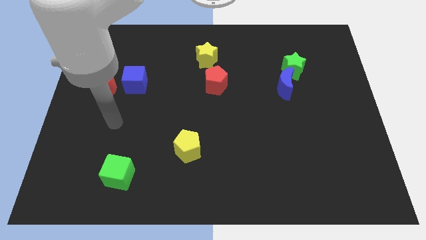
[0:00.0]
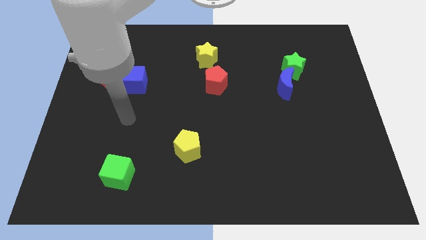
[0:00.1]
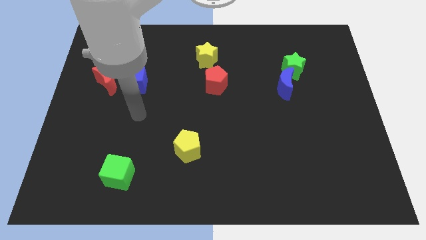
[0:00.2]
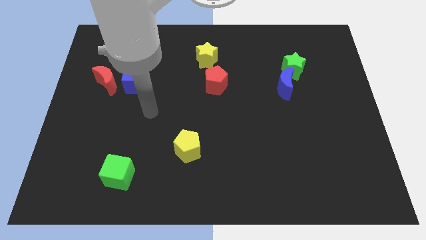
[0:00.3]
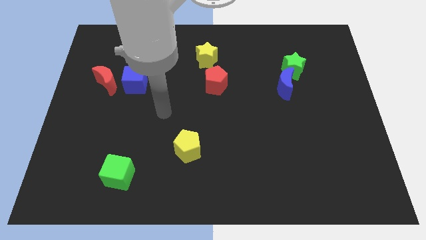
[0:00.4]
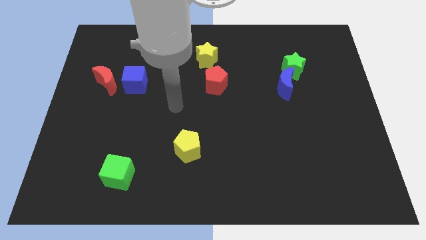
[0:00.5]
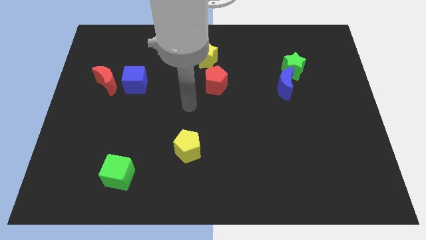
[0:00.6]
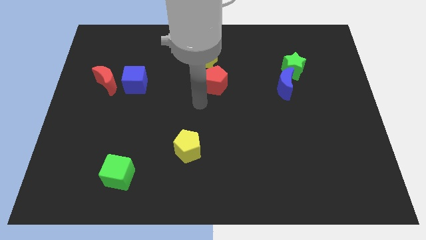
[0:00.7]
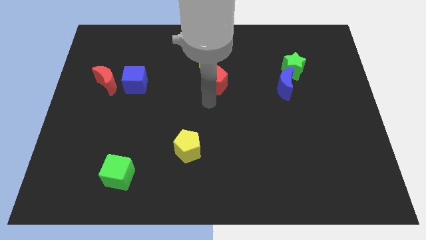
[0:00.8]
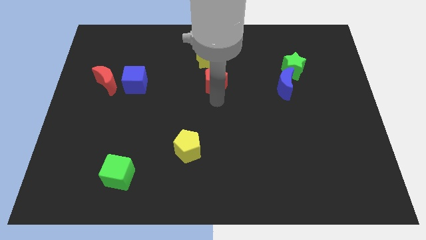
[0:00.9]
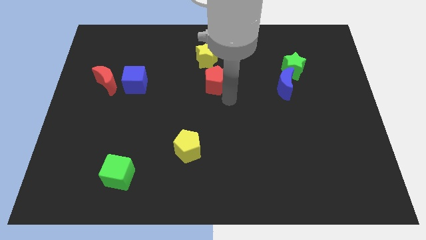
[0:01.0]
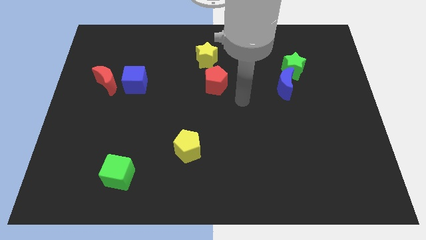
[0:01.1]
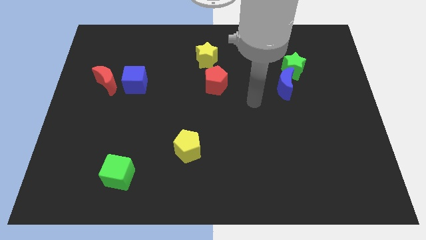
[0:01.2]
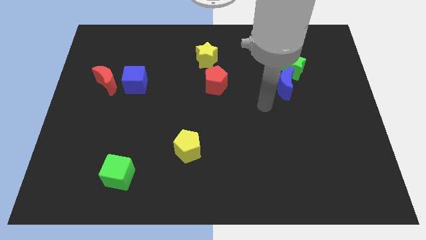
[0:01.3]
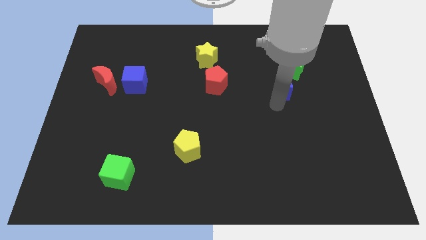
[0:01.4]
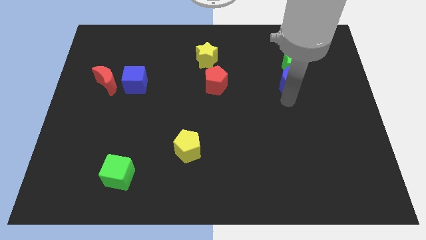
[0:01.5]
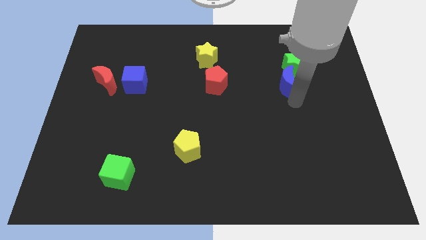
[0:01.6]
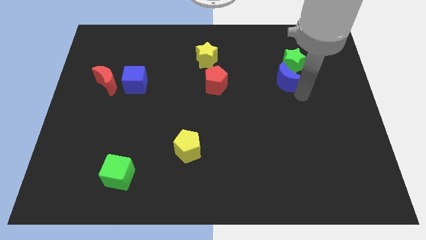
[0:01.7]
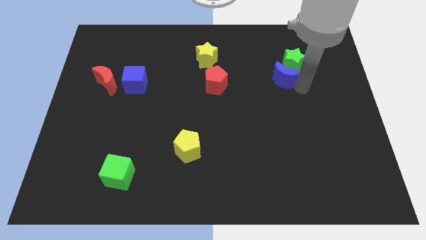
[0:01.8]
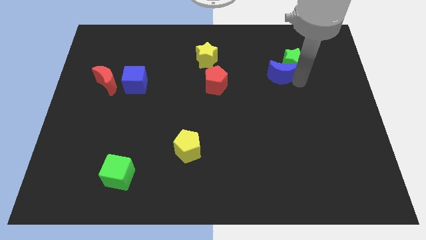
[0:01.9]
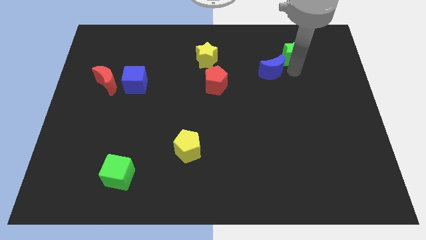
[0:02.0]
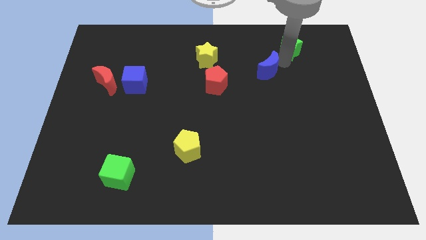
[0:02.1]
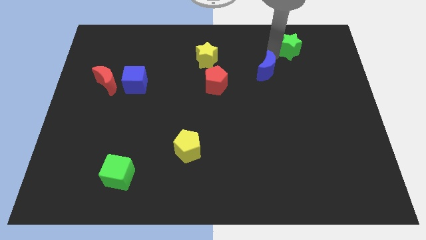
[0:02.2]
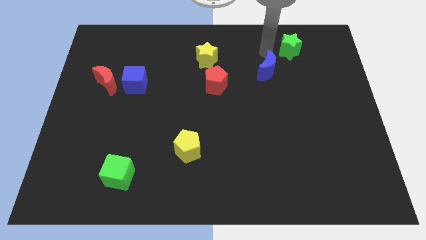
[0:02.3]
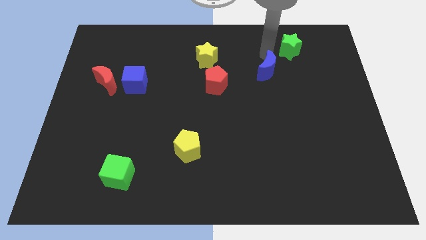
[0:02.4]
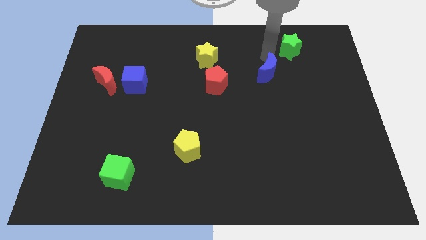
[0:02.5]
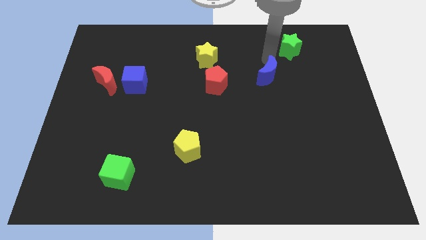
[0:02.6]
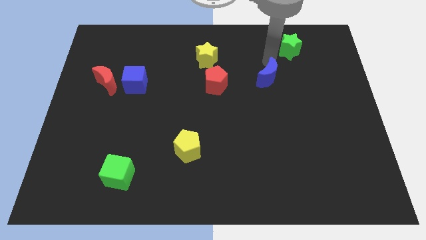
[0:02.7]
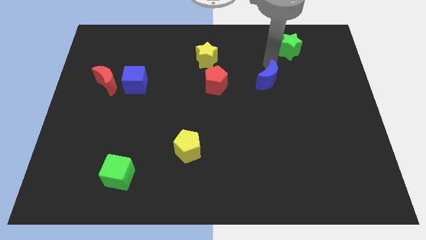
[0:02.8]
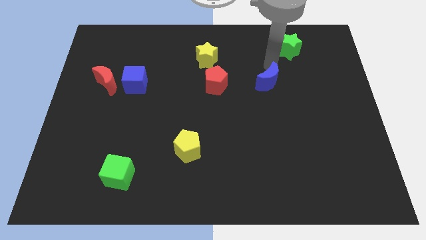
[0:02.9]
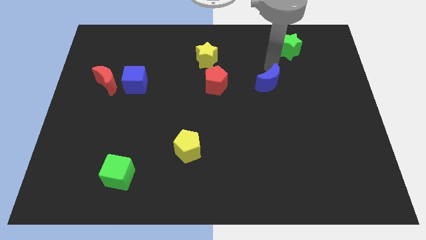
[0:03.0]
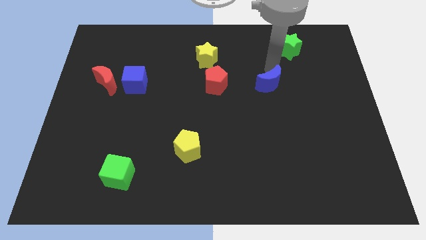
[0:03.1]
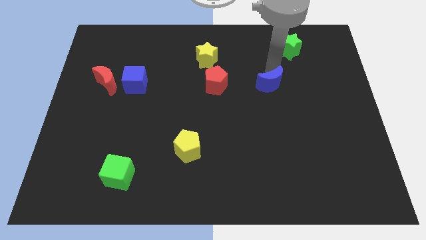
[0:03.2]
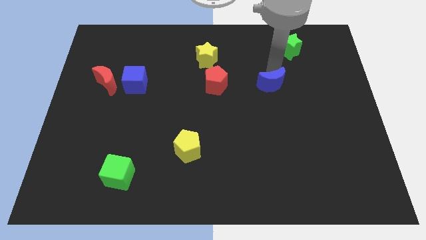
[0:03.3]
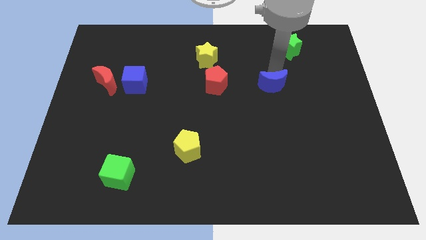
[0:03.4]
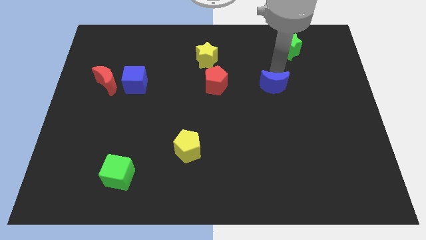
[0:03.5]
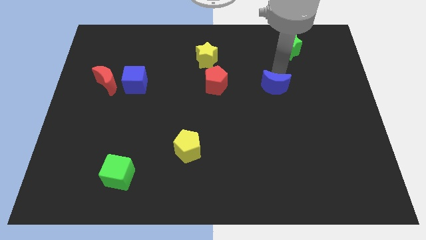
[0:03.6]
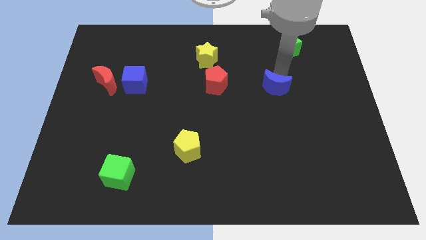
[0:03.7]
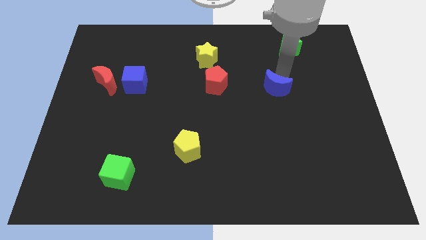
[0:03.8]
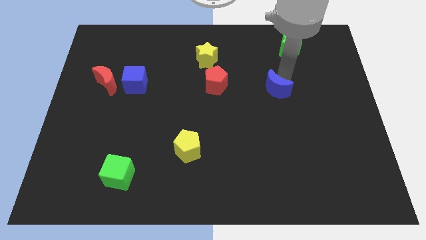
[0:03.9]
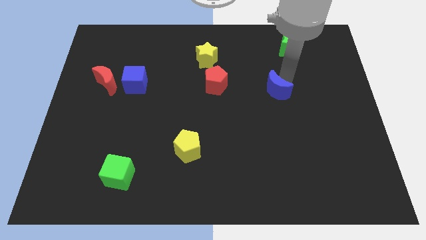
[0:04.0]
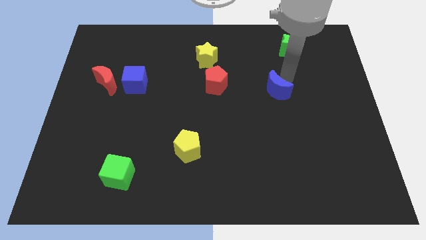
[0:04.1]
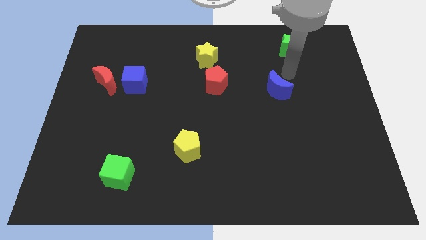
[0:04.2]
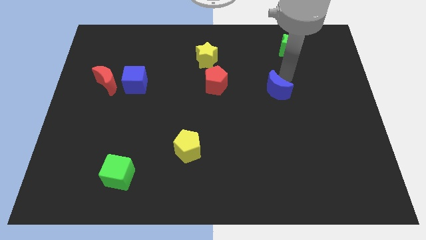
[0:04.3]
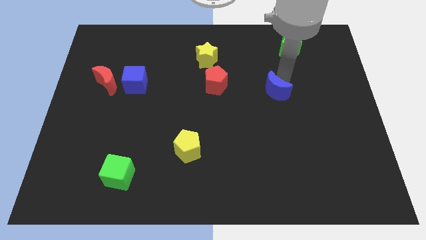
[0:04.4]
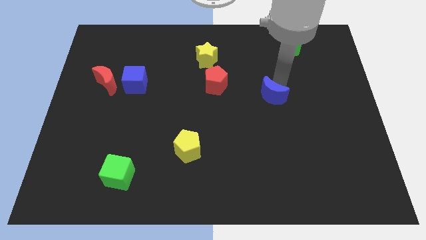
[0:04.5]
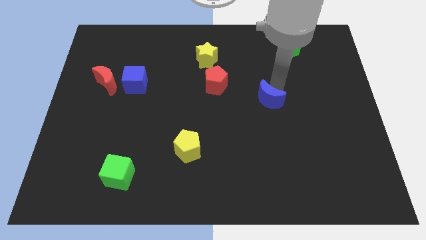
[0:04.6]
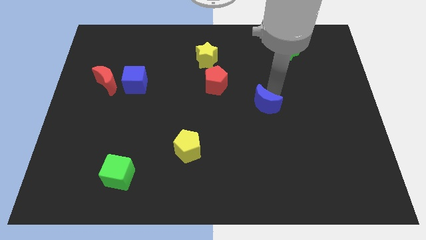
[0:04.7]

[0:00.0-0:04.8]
move the blue moon slightly downwards and to the left

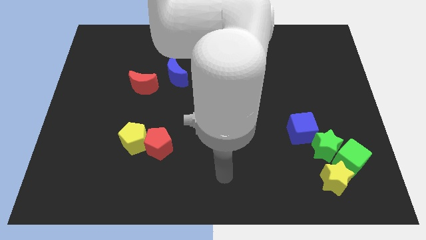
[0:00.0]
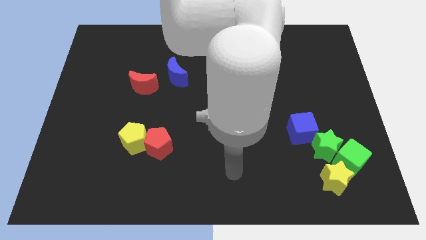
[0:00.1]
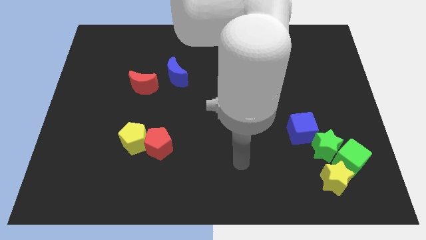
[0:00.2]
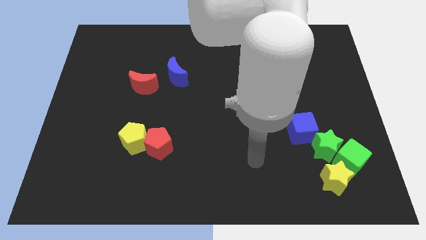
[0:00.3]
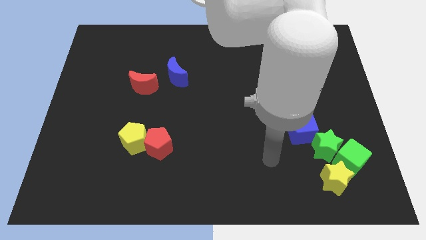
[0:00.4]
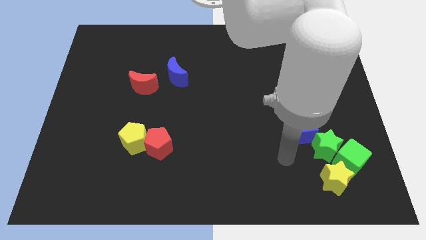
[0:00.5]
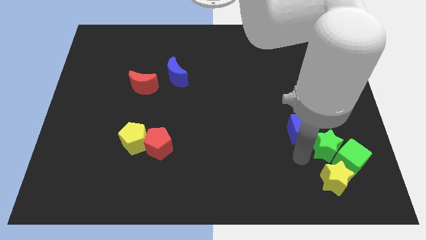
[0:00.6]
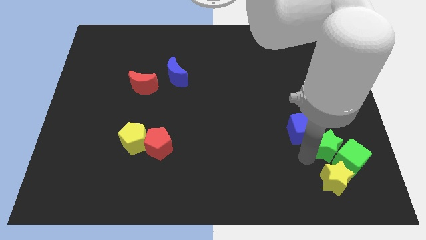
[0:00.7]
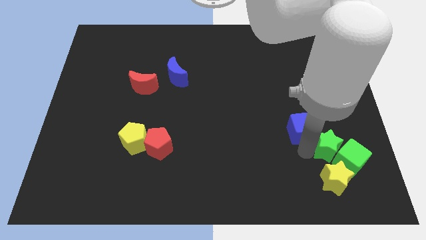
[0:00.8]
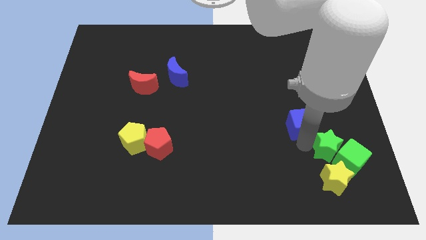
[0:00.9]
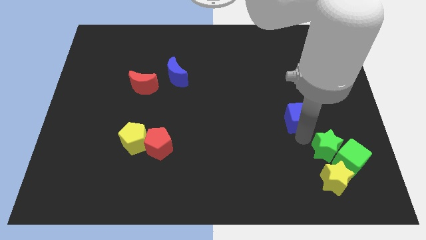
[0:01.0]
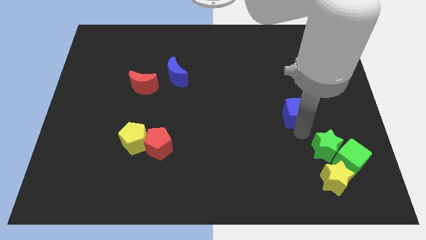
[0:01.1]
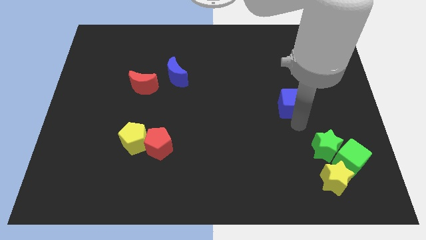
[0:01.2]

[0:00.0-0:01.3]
move the blue cube up a little

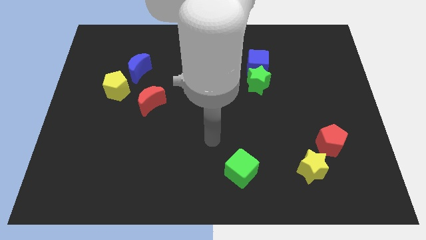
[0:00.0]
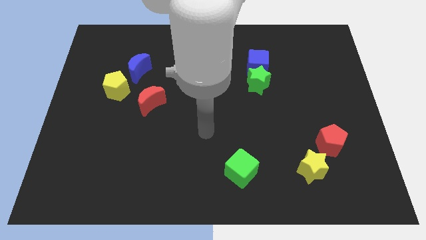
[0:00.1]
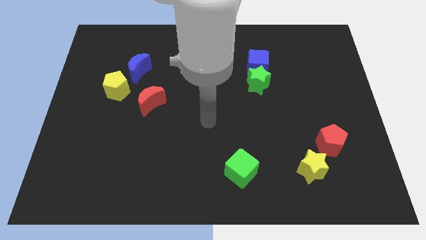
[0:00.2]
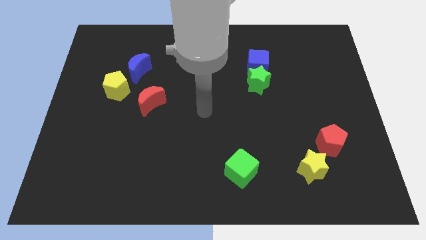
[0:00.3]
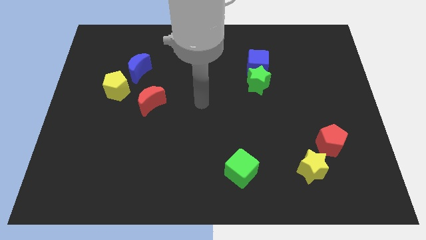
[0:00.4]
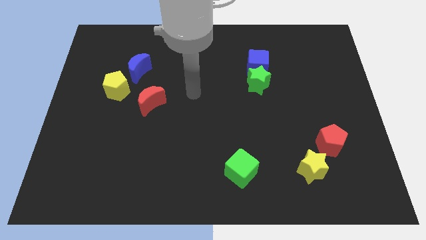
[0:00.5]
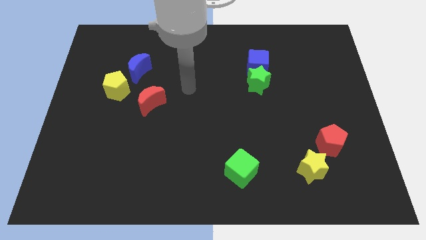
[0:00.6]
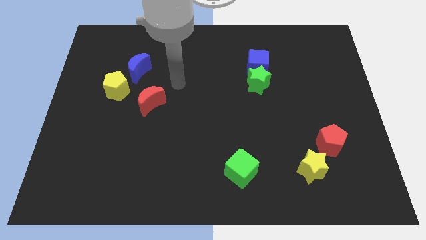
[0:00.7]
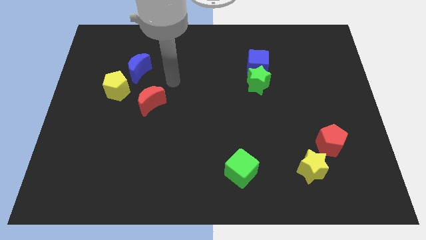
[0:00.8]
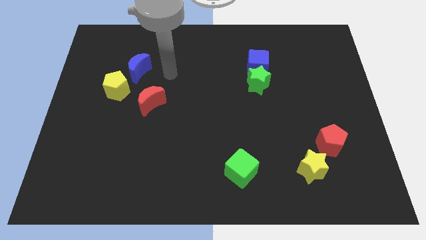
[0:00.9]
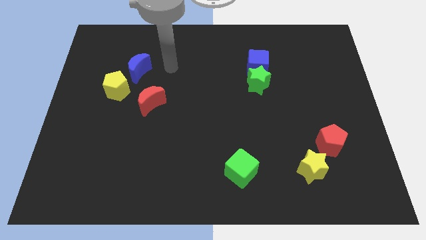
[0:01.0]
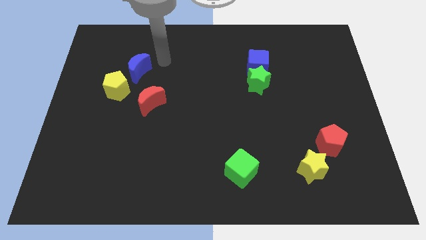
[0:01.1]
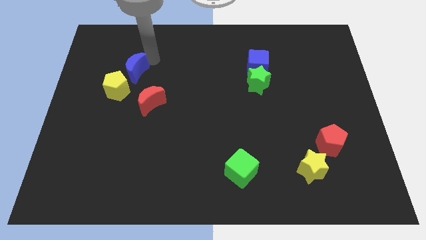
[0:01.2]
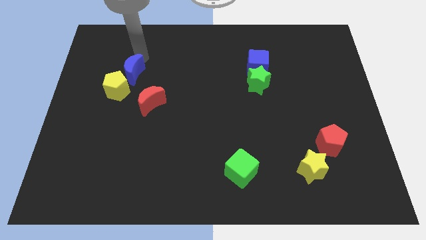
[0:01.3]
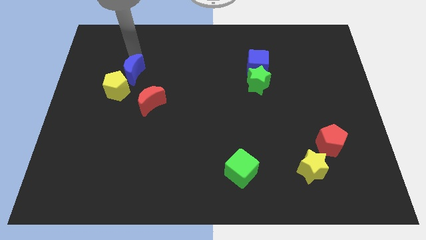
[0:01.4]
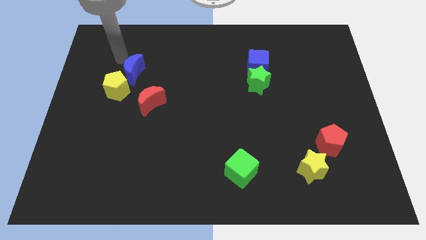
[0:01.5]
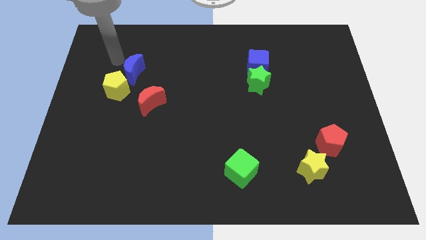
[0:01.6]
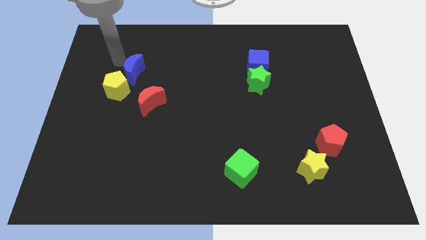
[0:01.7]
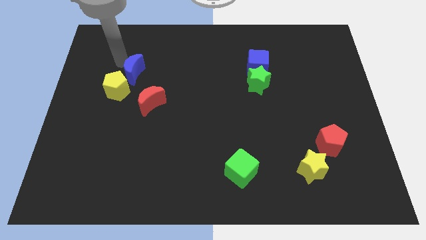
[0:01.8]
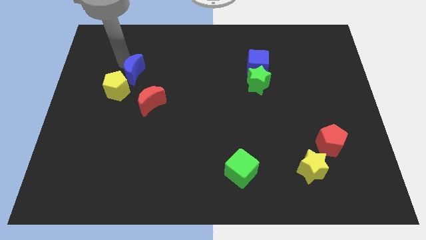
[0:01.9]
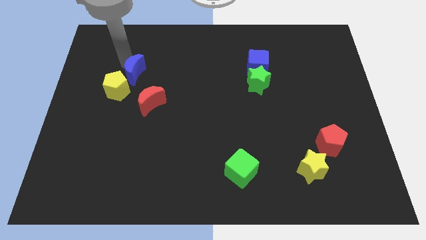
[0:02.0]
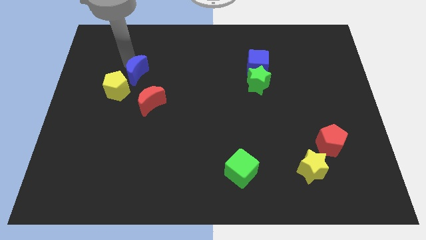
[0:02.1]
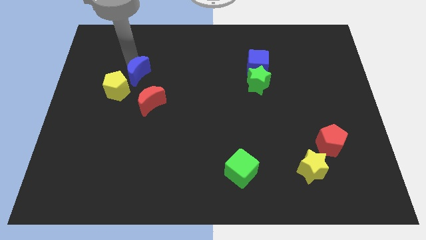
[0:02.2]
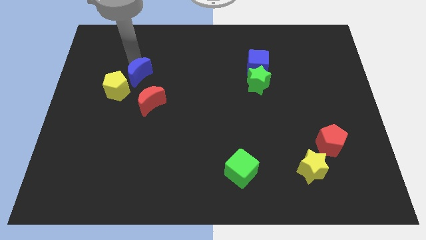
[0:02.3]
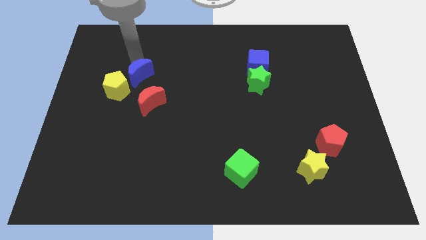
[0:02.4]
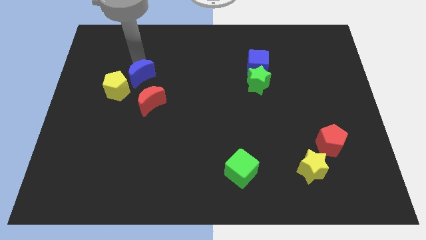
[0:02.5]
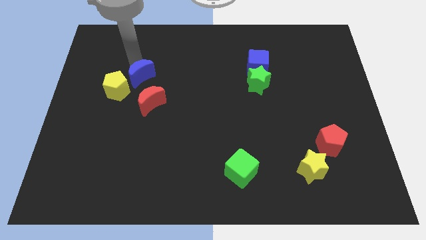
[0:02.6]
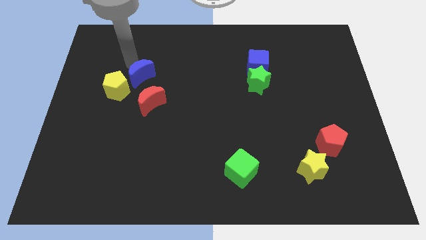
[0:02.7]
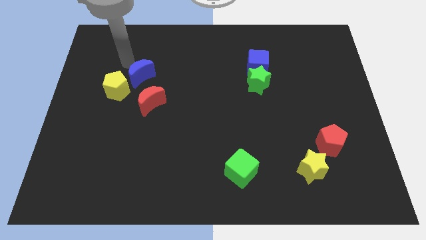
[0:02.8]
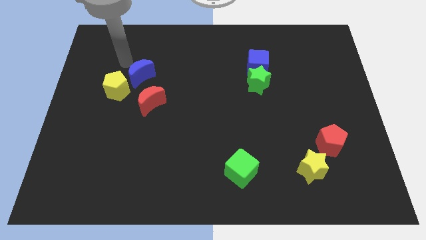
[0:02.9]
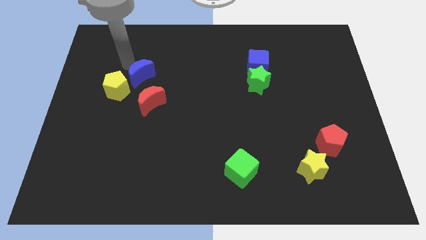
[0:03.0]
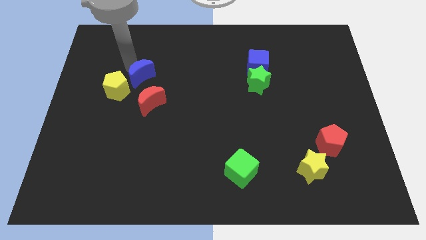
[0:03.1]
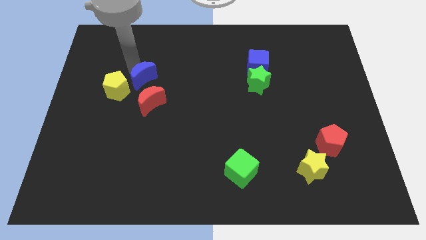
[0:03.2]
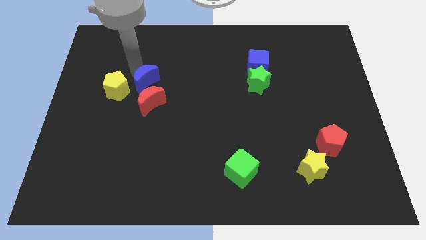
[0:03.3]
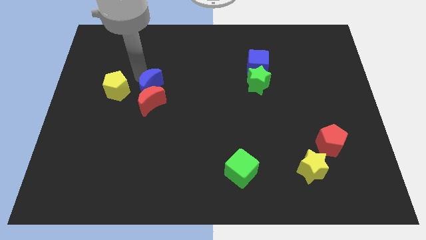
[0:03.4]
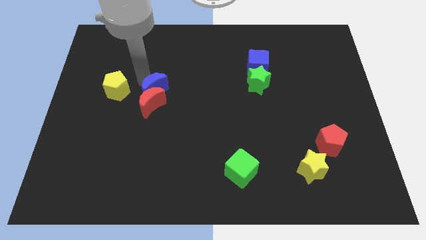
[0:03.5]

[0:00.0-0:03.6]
slightly slide the blue moon down and right
